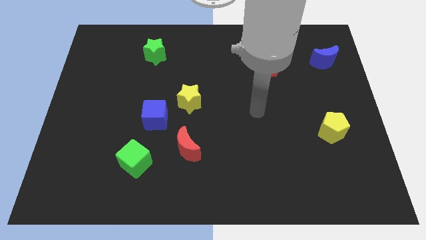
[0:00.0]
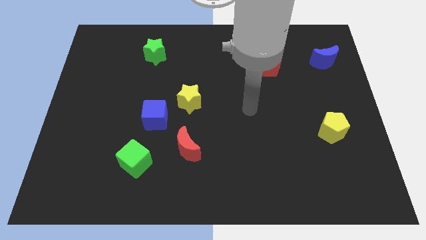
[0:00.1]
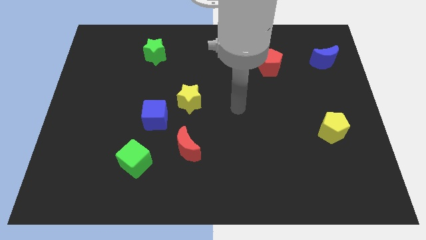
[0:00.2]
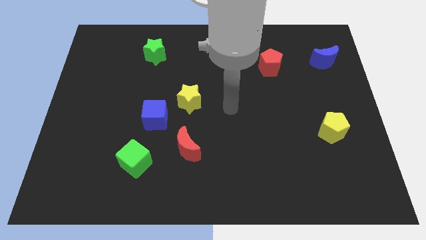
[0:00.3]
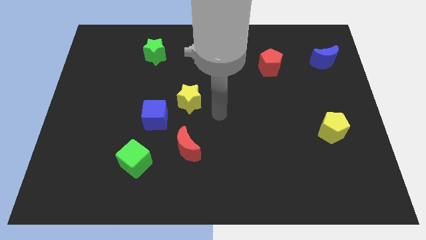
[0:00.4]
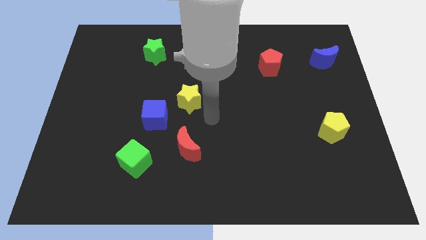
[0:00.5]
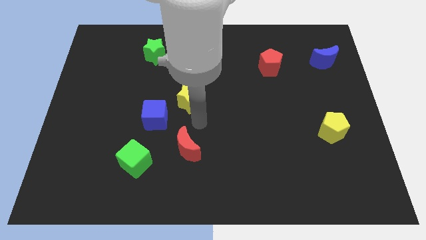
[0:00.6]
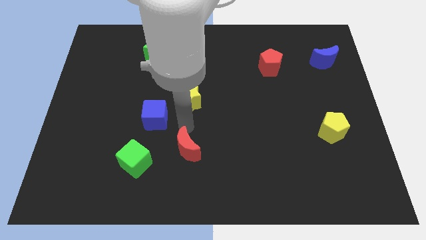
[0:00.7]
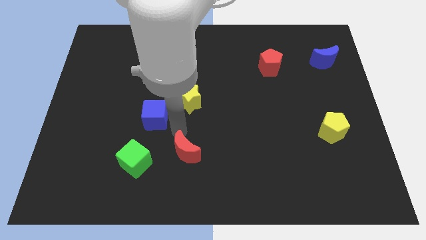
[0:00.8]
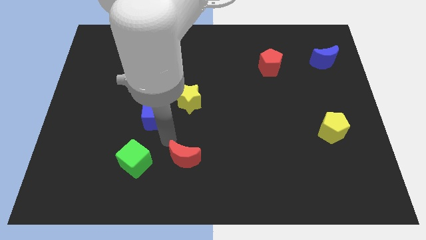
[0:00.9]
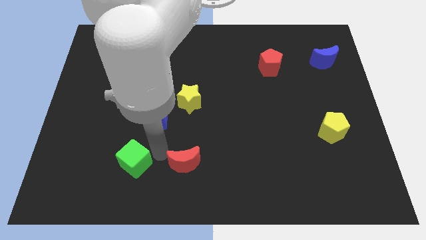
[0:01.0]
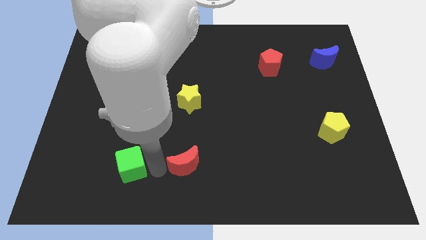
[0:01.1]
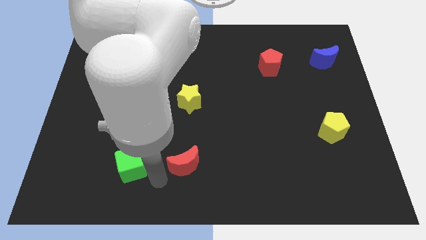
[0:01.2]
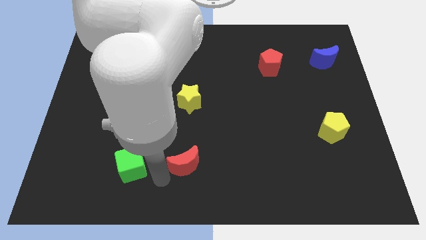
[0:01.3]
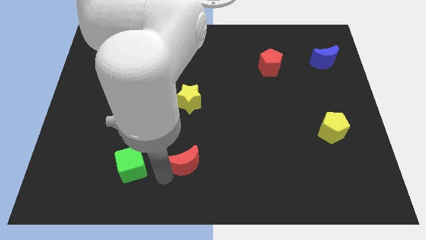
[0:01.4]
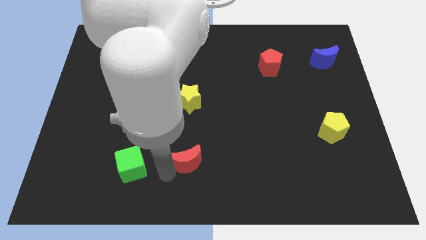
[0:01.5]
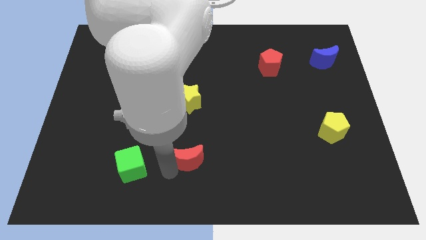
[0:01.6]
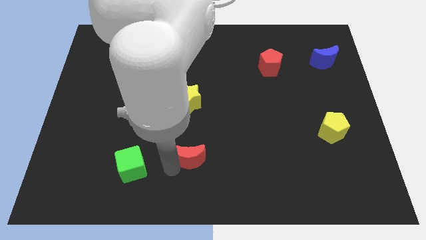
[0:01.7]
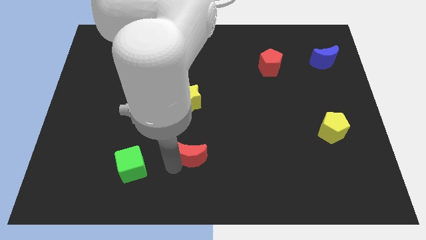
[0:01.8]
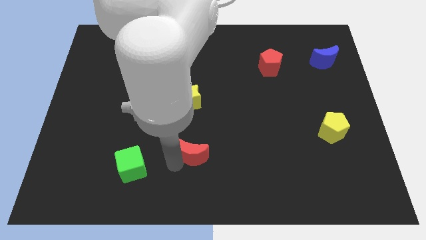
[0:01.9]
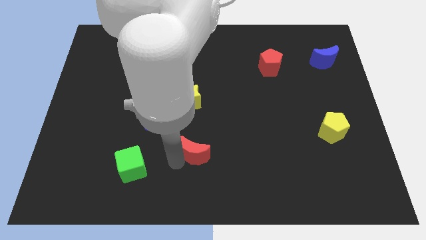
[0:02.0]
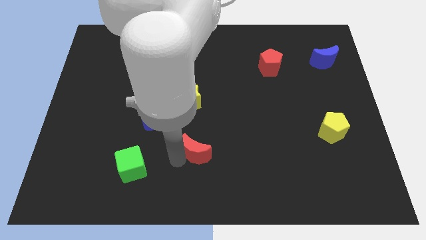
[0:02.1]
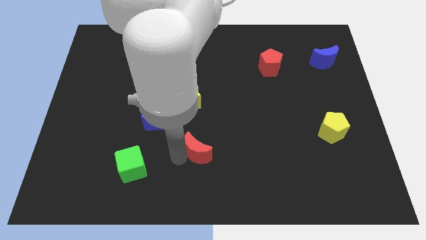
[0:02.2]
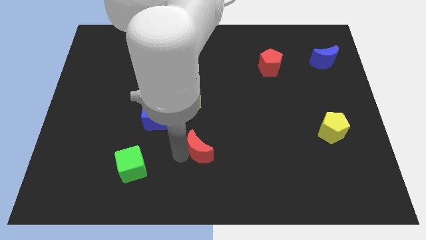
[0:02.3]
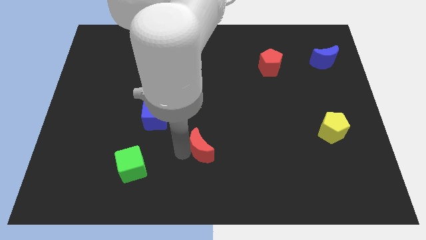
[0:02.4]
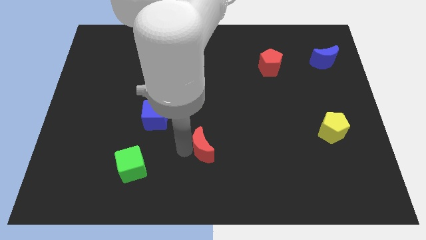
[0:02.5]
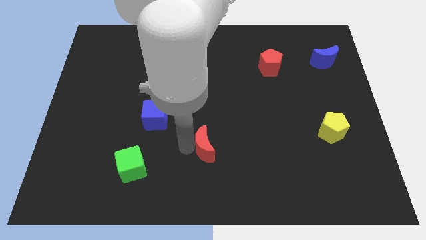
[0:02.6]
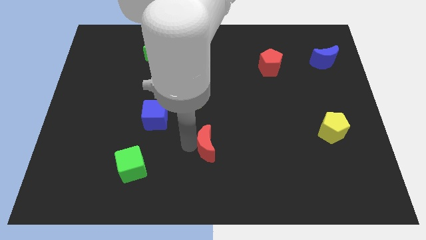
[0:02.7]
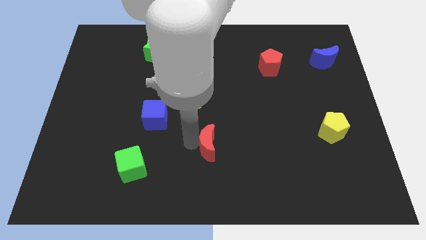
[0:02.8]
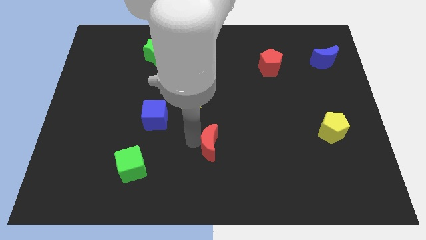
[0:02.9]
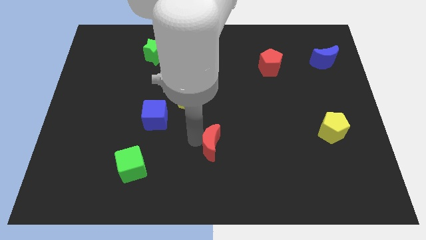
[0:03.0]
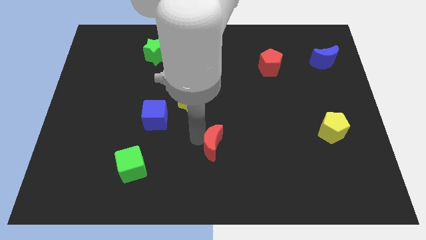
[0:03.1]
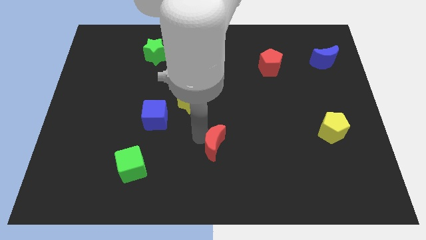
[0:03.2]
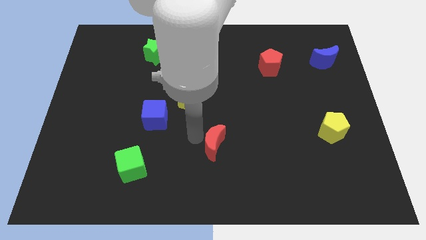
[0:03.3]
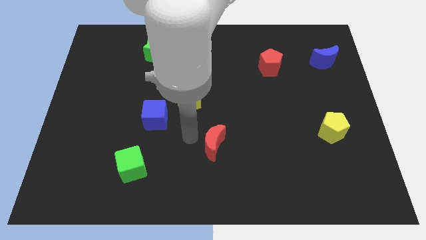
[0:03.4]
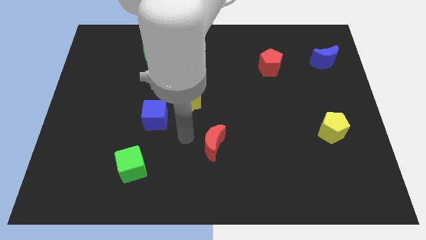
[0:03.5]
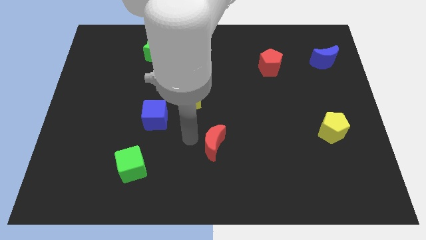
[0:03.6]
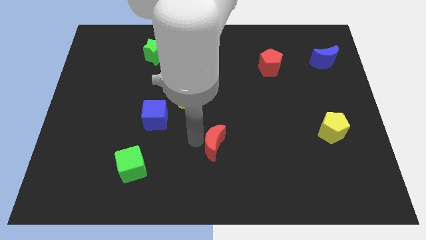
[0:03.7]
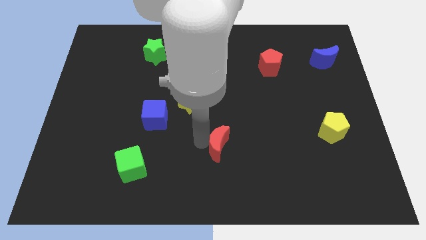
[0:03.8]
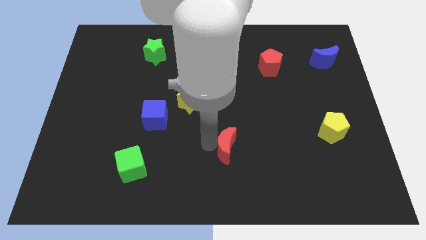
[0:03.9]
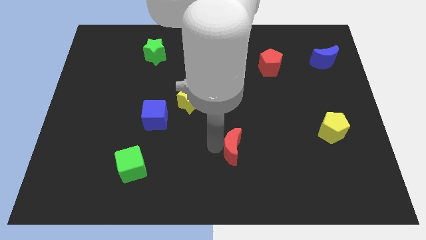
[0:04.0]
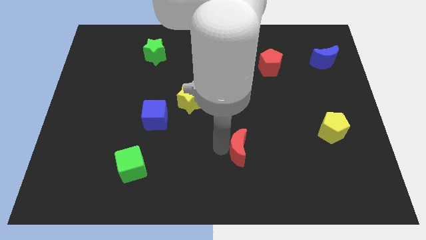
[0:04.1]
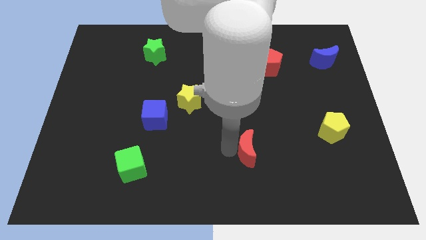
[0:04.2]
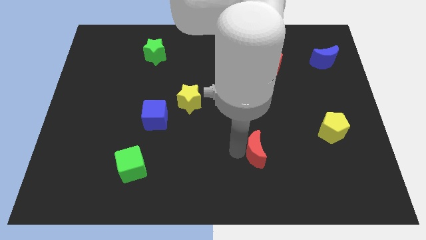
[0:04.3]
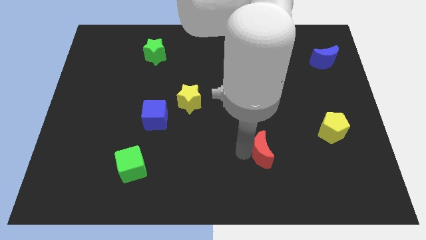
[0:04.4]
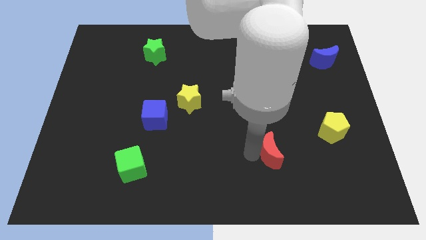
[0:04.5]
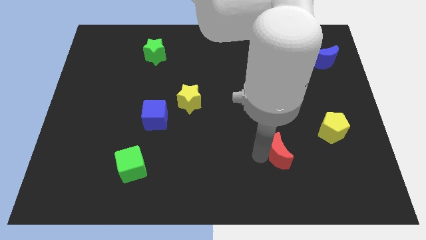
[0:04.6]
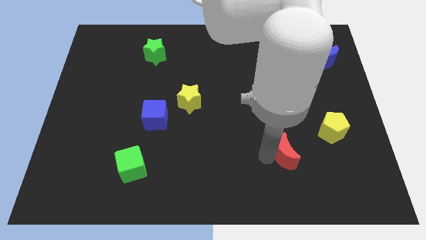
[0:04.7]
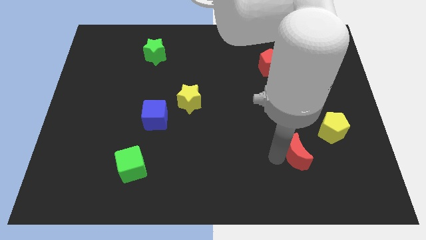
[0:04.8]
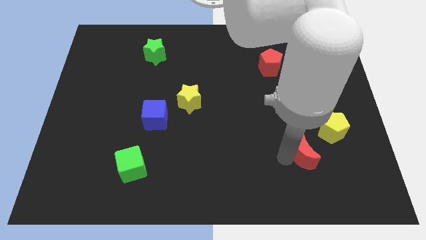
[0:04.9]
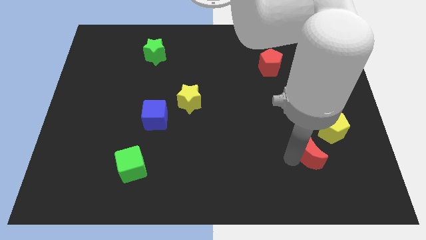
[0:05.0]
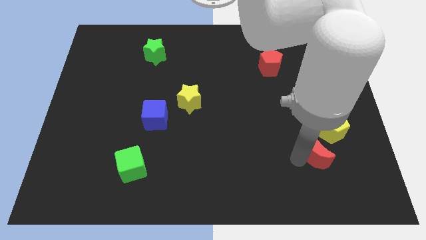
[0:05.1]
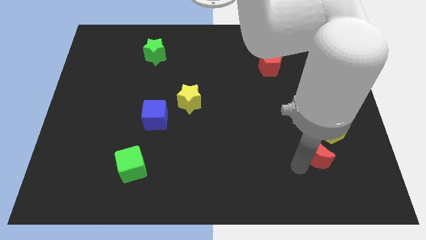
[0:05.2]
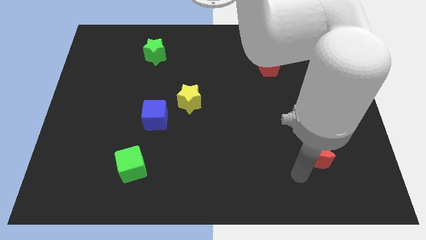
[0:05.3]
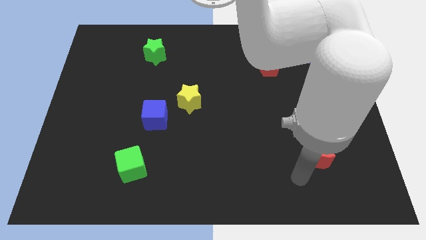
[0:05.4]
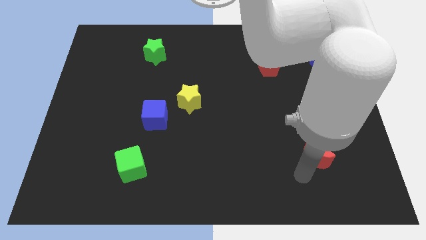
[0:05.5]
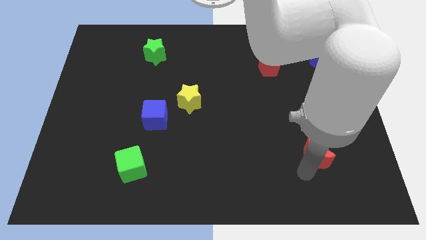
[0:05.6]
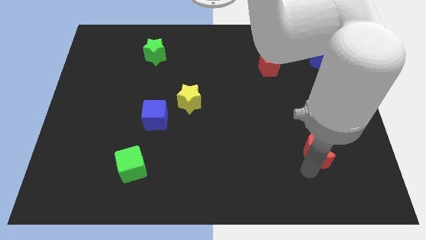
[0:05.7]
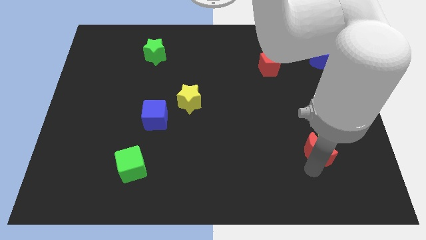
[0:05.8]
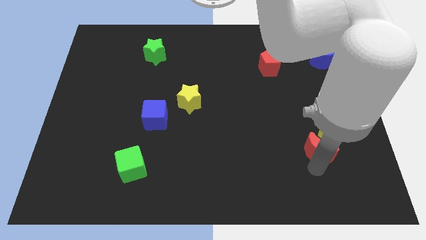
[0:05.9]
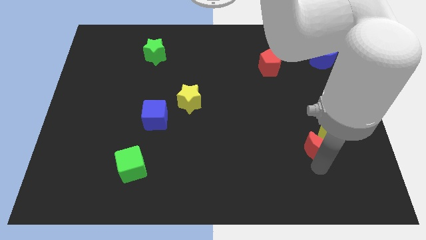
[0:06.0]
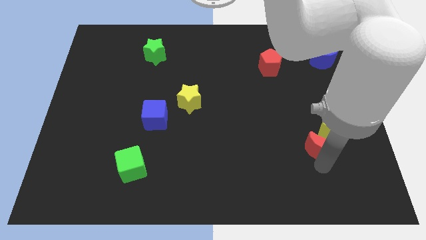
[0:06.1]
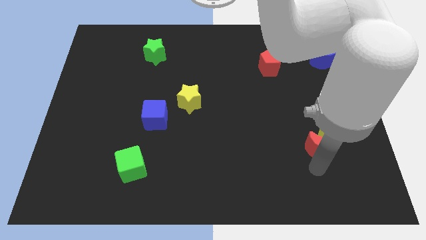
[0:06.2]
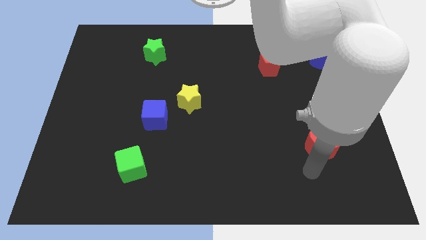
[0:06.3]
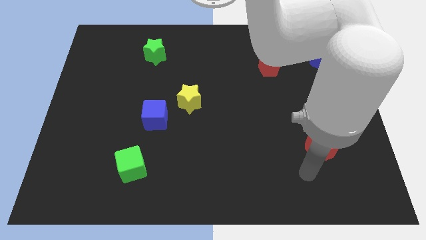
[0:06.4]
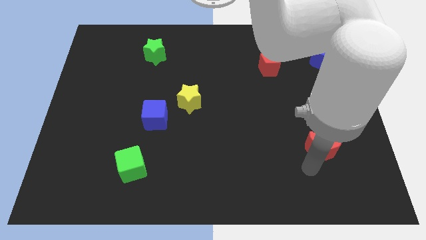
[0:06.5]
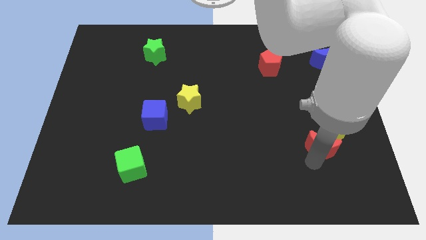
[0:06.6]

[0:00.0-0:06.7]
put the red moon to the yellow pentagon

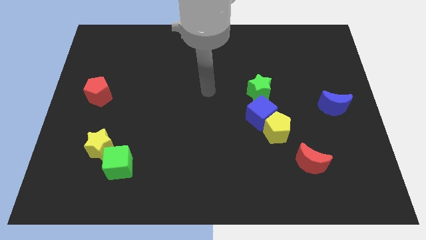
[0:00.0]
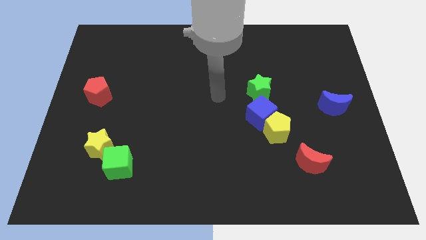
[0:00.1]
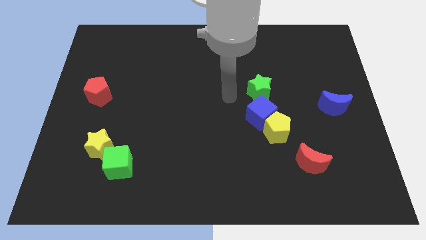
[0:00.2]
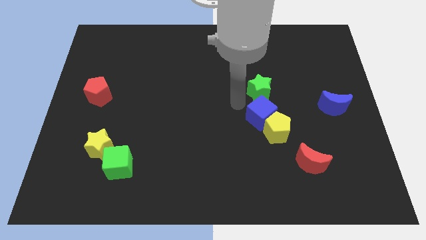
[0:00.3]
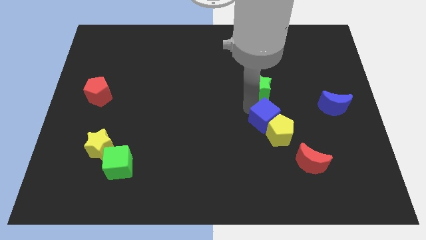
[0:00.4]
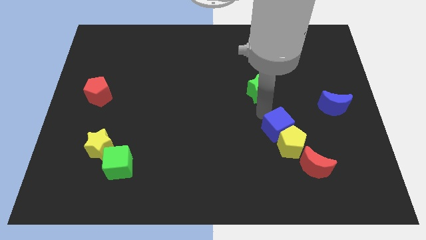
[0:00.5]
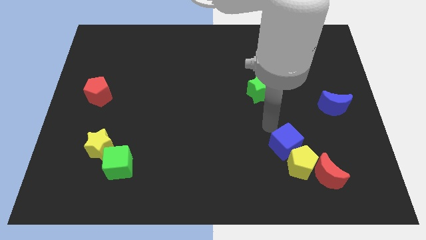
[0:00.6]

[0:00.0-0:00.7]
push the yellow pentagon to the red moon
